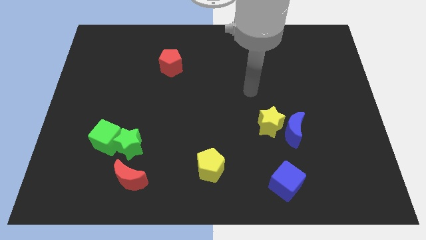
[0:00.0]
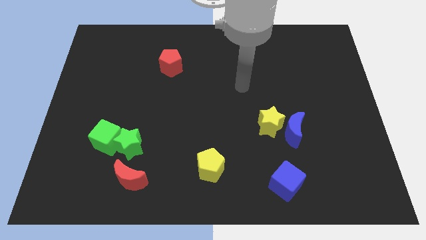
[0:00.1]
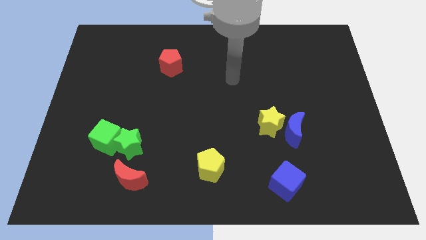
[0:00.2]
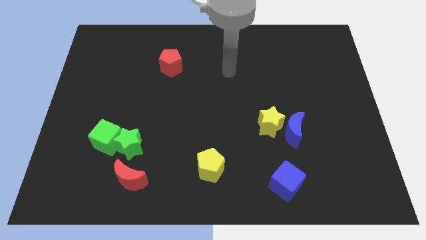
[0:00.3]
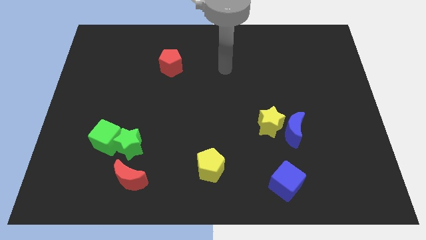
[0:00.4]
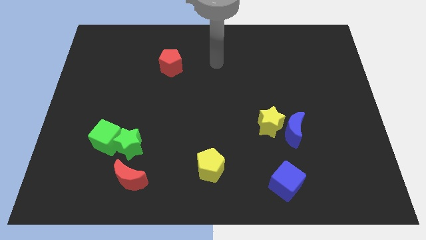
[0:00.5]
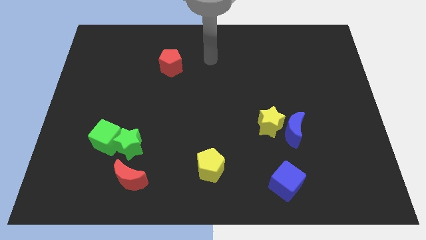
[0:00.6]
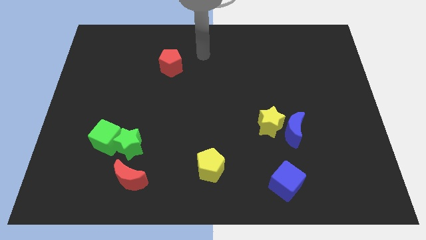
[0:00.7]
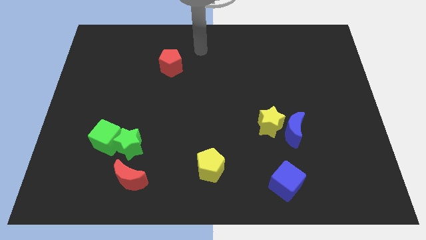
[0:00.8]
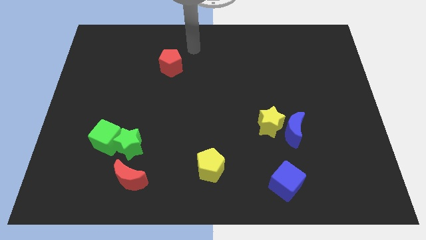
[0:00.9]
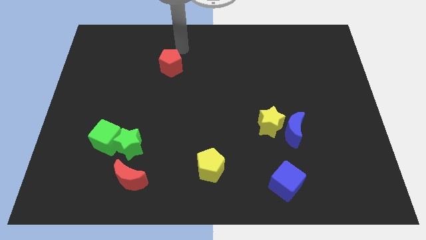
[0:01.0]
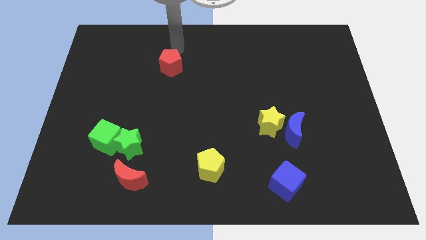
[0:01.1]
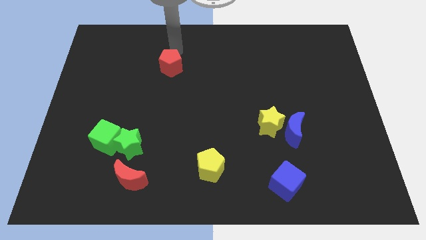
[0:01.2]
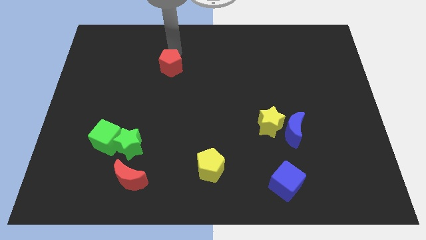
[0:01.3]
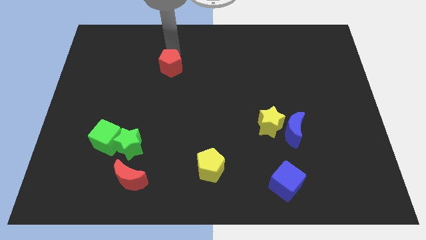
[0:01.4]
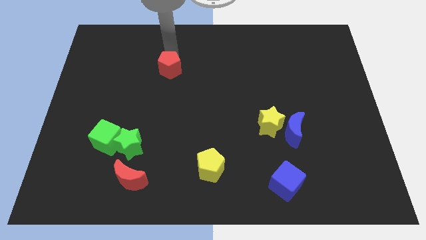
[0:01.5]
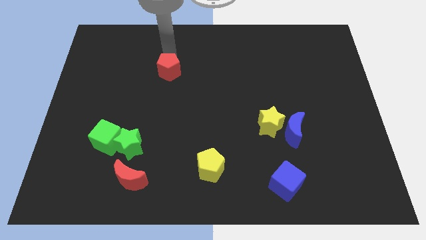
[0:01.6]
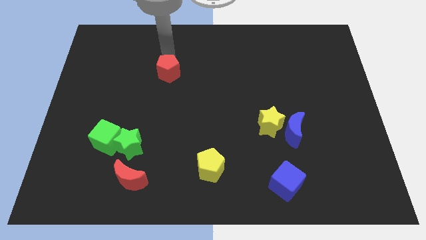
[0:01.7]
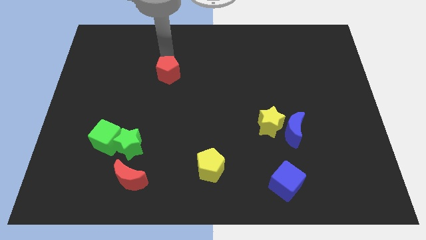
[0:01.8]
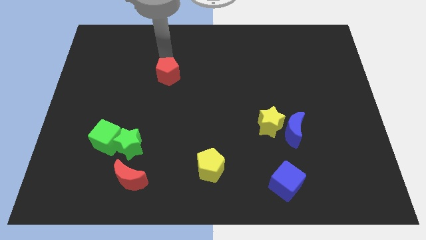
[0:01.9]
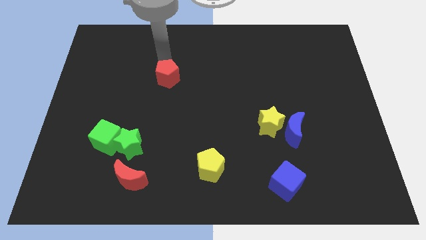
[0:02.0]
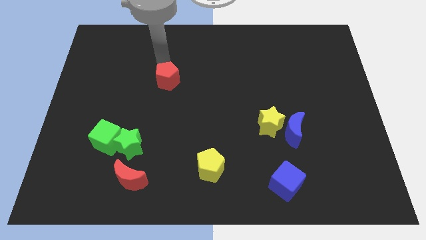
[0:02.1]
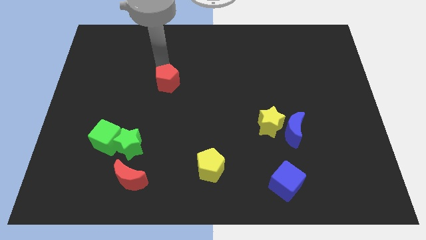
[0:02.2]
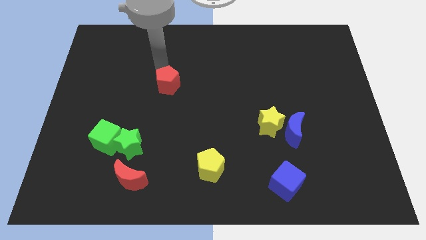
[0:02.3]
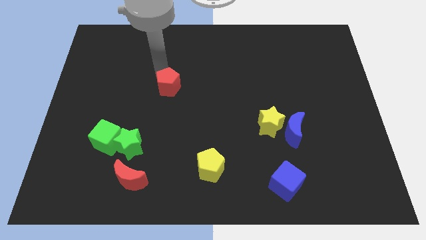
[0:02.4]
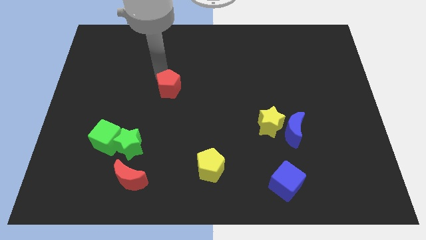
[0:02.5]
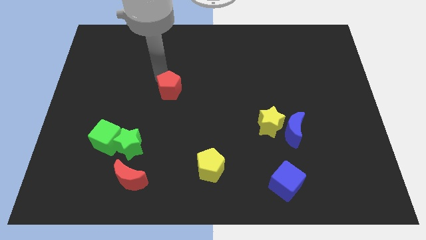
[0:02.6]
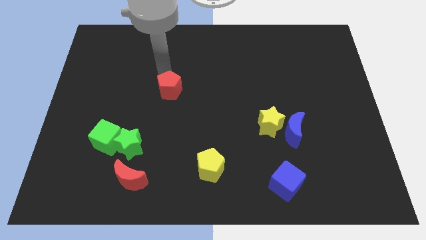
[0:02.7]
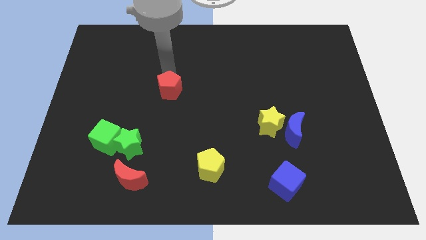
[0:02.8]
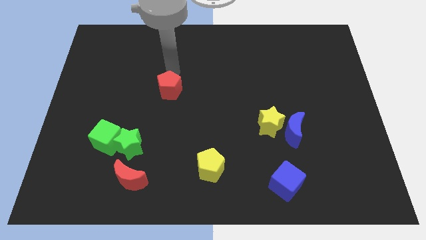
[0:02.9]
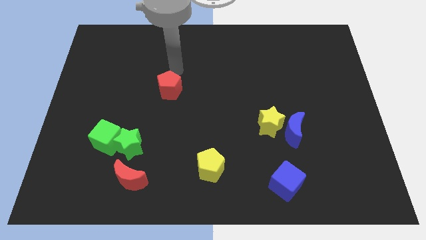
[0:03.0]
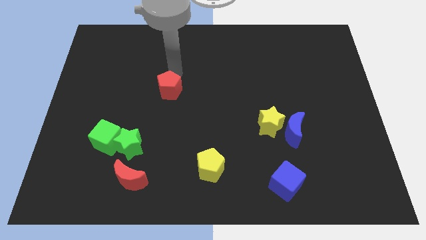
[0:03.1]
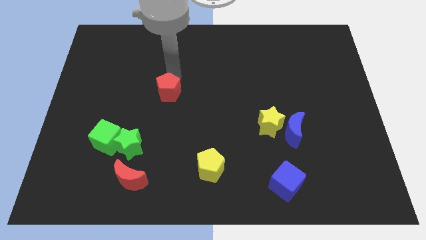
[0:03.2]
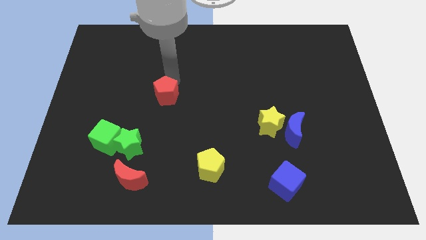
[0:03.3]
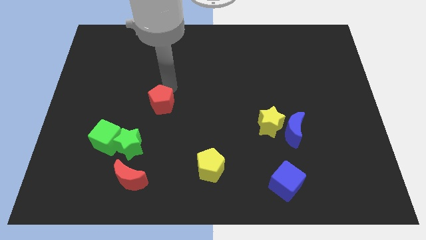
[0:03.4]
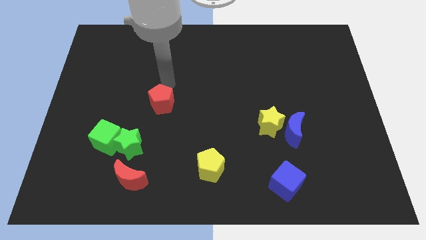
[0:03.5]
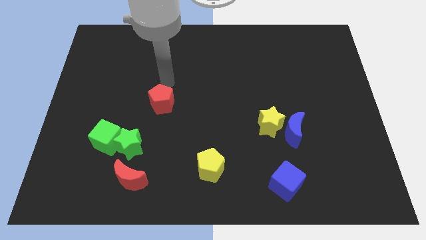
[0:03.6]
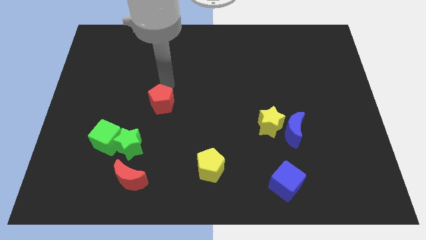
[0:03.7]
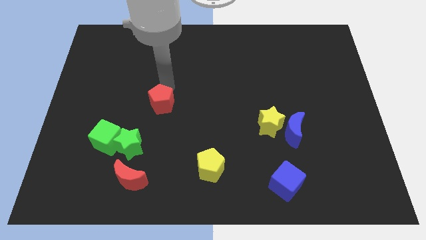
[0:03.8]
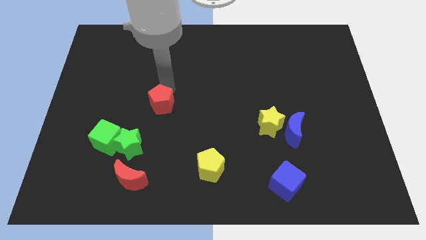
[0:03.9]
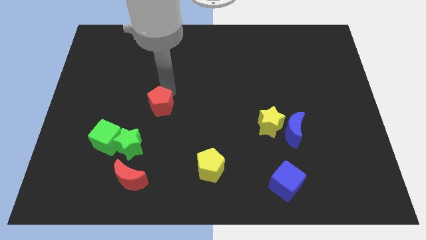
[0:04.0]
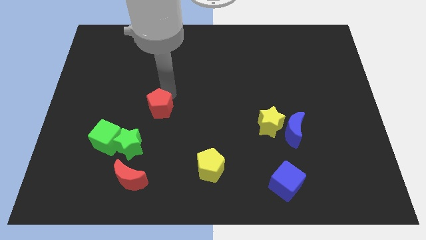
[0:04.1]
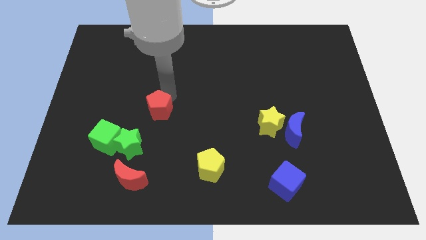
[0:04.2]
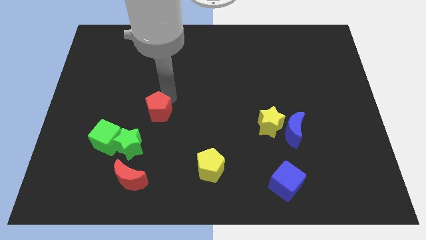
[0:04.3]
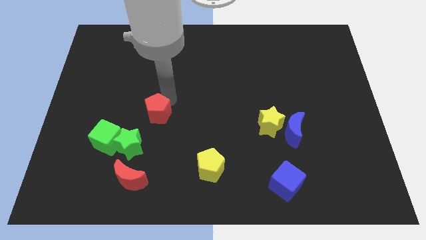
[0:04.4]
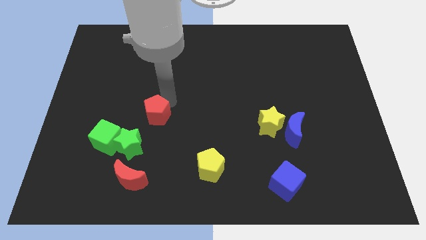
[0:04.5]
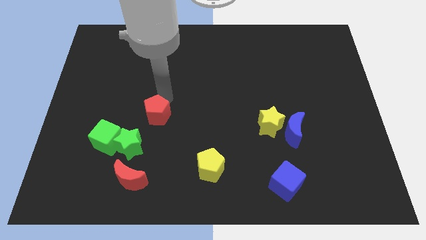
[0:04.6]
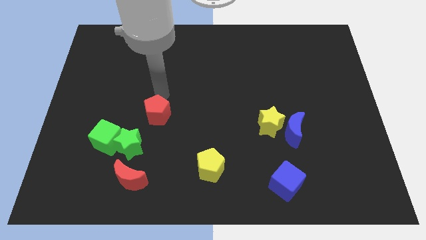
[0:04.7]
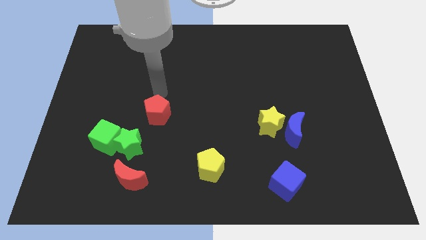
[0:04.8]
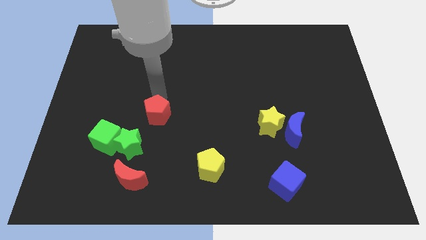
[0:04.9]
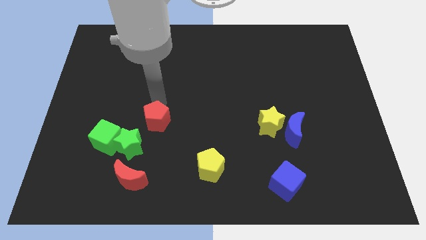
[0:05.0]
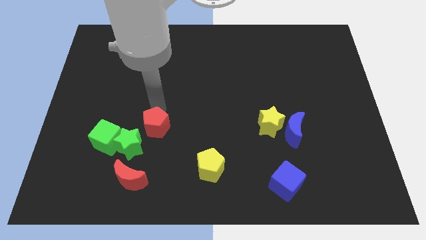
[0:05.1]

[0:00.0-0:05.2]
move the red pentagon just right of the green cube

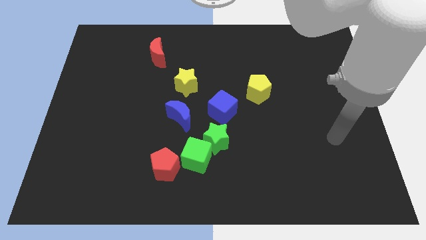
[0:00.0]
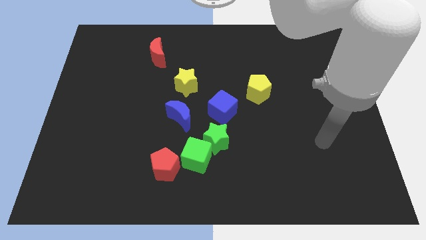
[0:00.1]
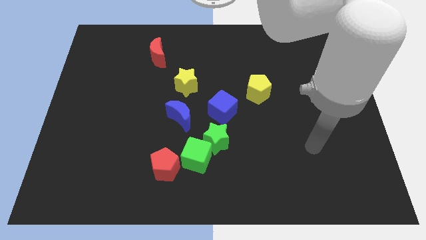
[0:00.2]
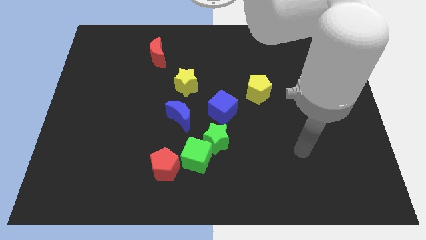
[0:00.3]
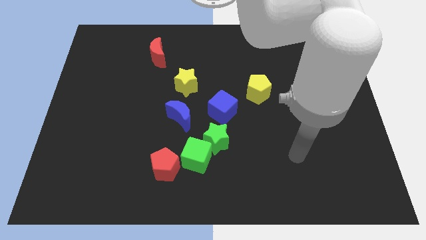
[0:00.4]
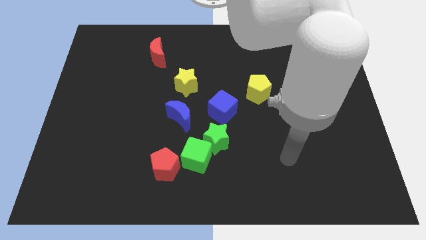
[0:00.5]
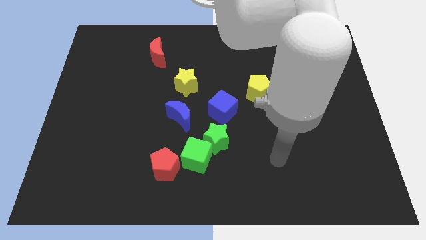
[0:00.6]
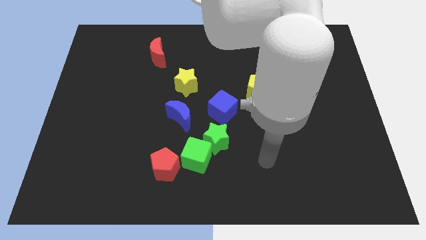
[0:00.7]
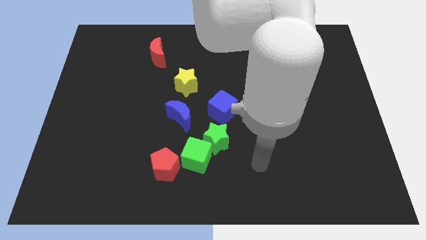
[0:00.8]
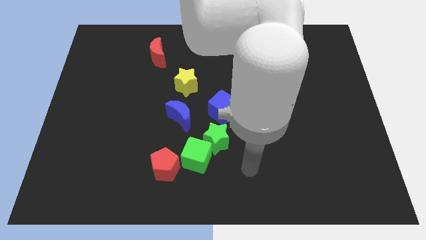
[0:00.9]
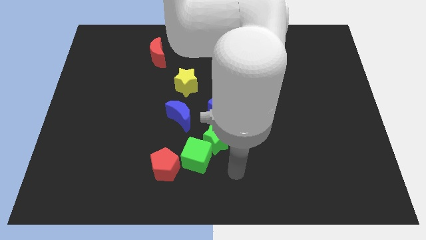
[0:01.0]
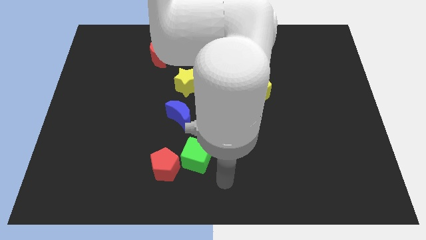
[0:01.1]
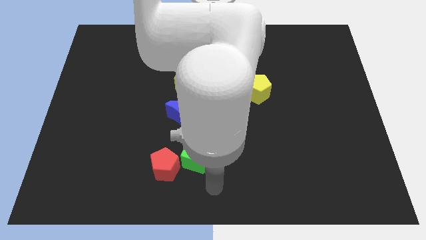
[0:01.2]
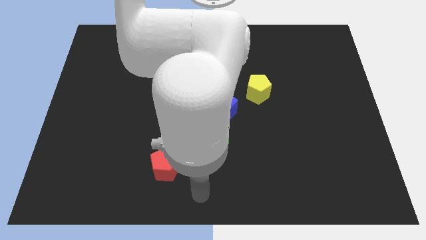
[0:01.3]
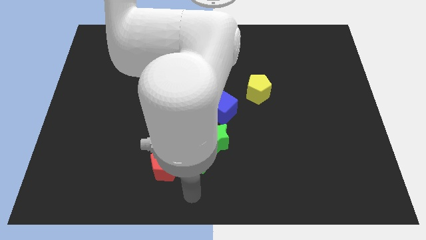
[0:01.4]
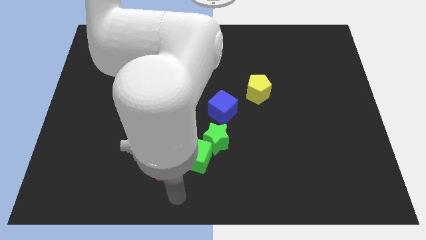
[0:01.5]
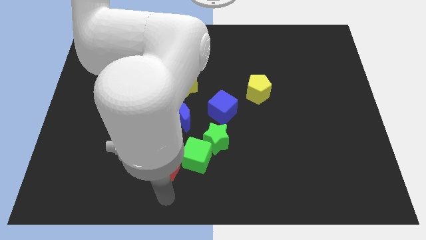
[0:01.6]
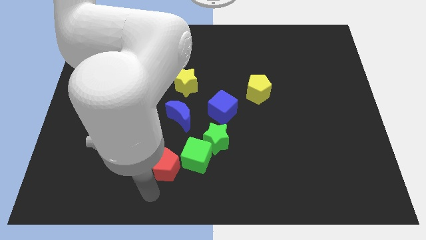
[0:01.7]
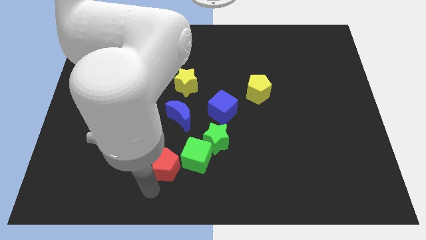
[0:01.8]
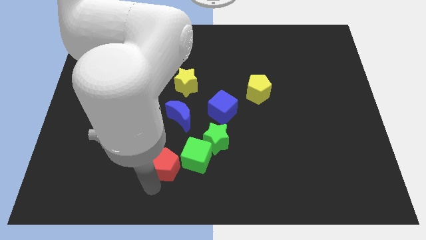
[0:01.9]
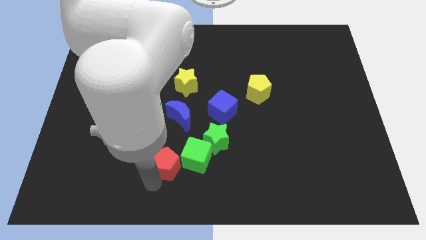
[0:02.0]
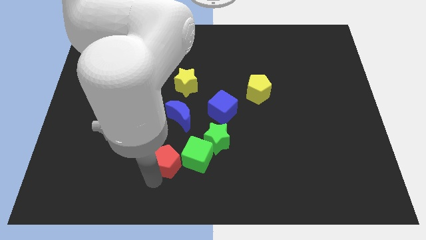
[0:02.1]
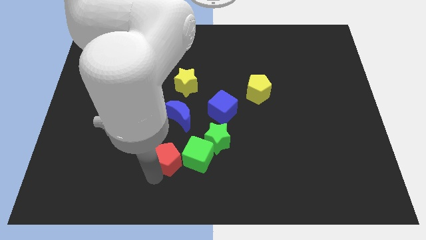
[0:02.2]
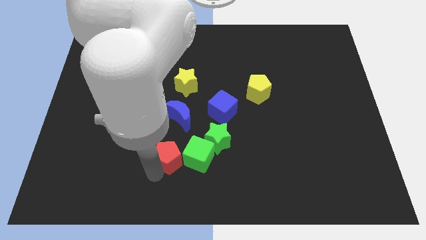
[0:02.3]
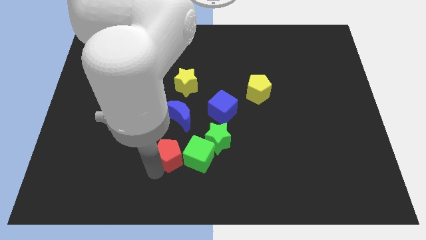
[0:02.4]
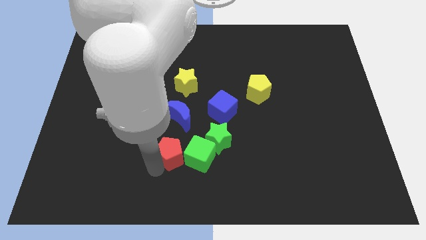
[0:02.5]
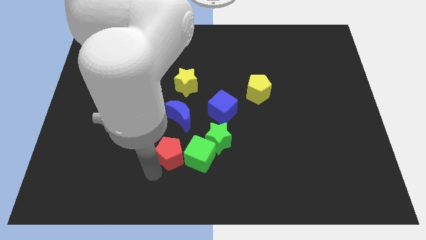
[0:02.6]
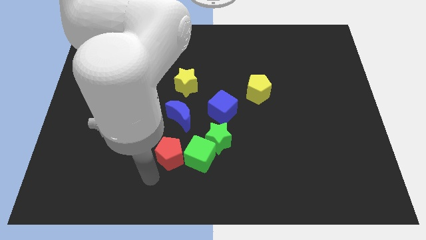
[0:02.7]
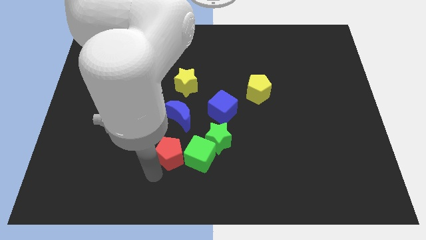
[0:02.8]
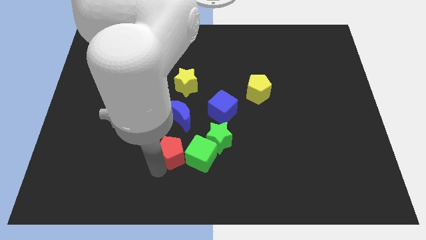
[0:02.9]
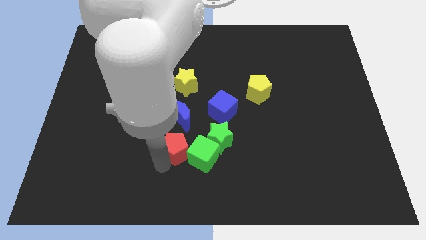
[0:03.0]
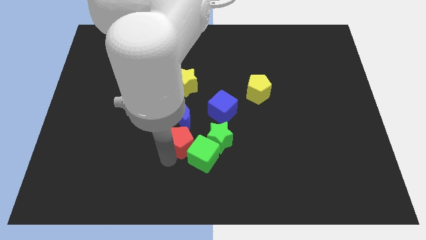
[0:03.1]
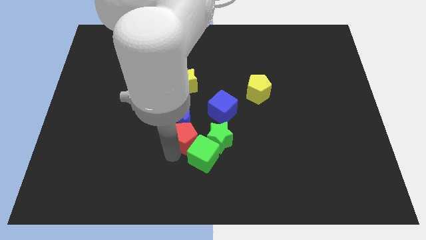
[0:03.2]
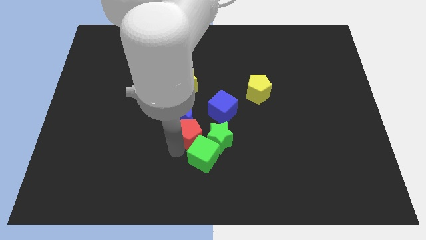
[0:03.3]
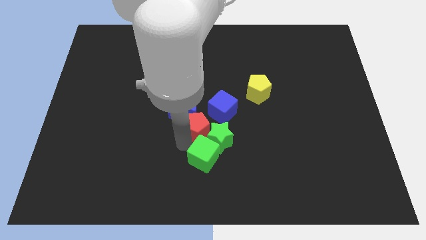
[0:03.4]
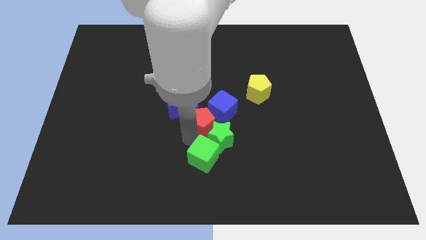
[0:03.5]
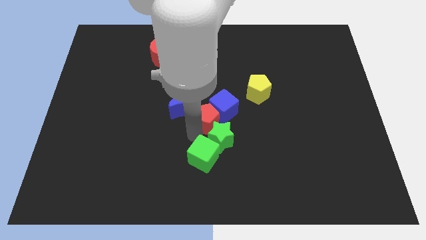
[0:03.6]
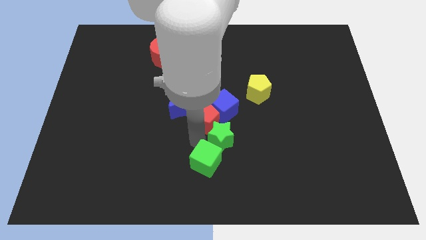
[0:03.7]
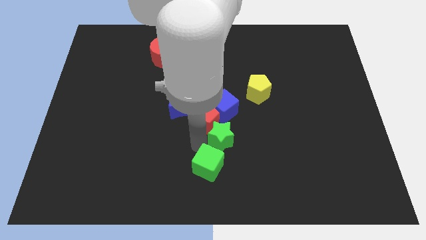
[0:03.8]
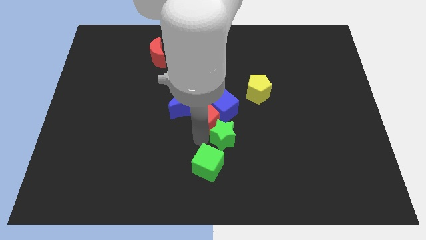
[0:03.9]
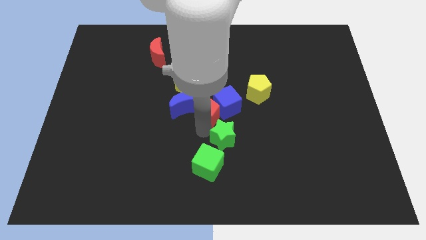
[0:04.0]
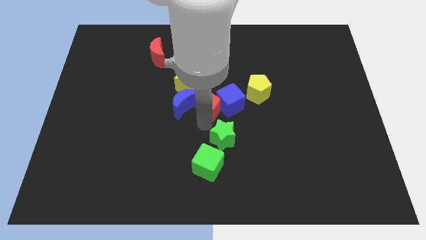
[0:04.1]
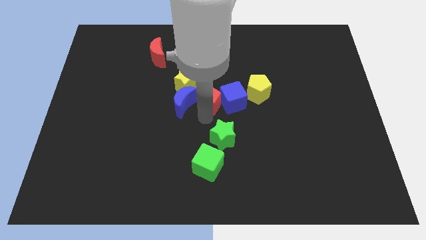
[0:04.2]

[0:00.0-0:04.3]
put the red pentagon left of the yellow pentagon
